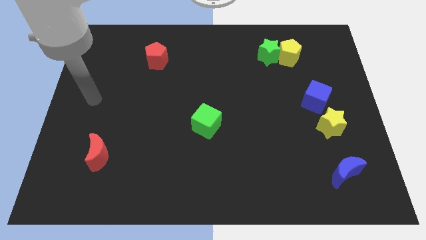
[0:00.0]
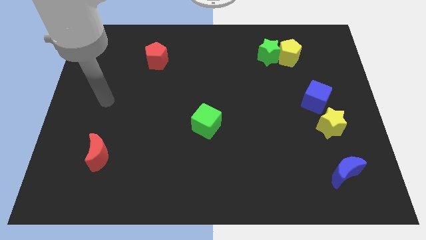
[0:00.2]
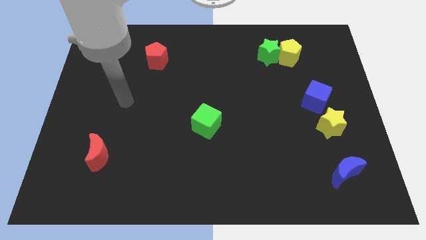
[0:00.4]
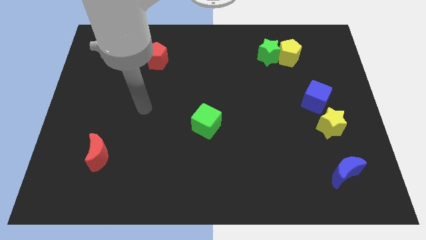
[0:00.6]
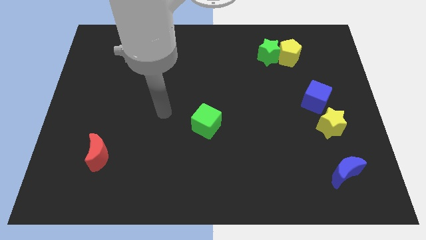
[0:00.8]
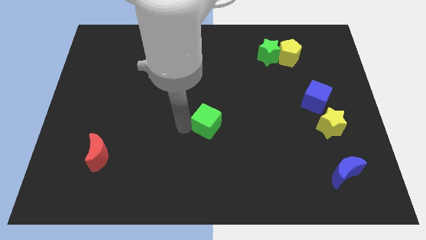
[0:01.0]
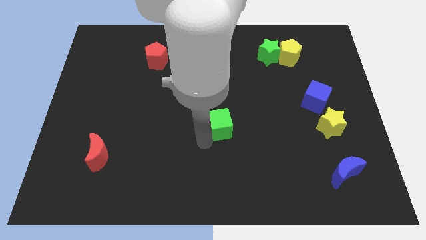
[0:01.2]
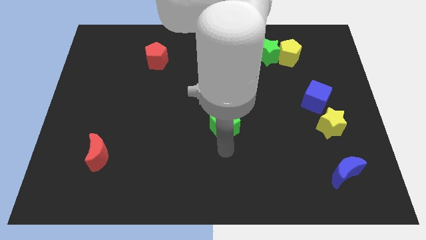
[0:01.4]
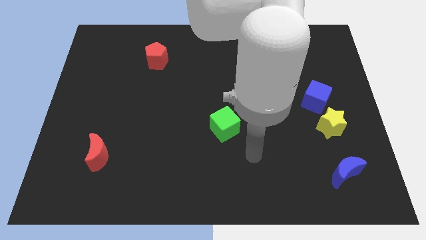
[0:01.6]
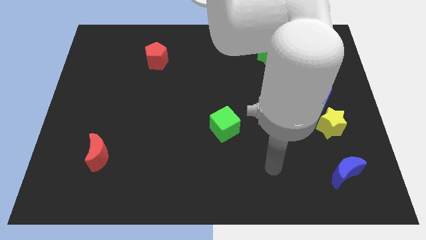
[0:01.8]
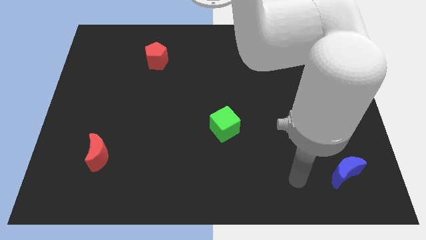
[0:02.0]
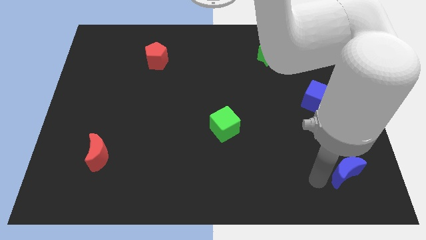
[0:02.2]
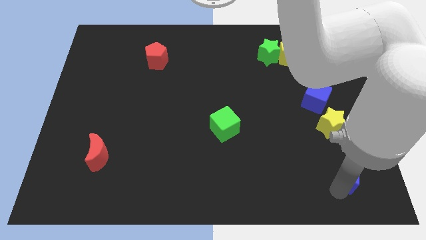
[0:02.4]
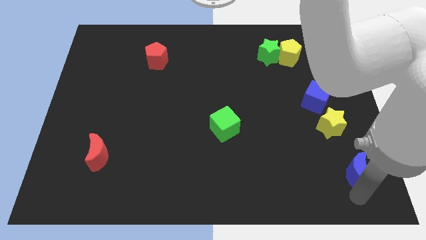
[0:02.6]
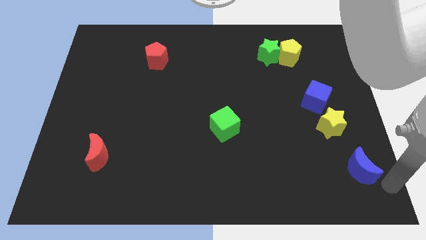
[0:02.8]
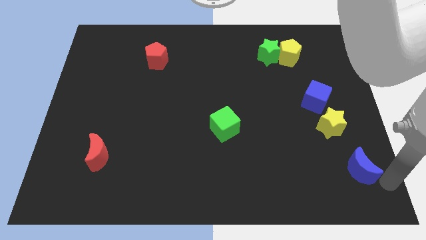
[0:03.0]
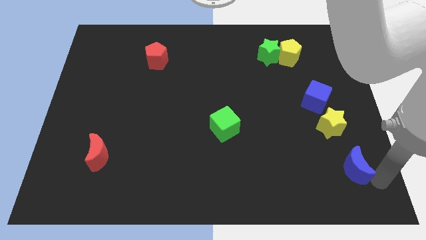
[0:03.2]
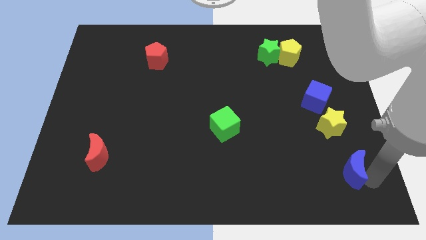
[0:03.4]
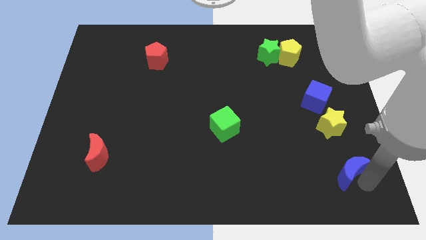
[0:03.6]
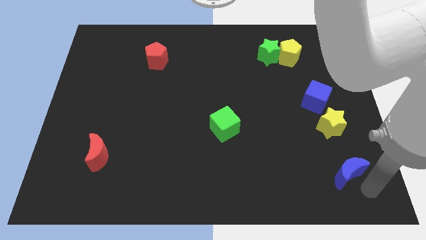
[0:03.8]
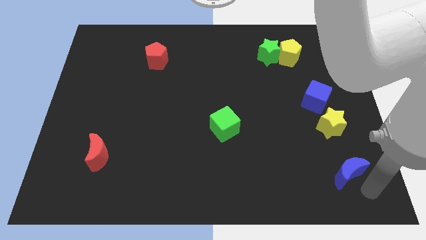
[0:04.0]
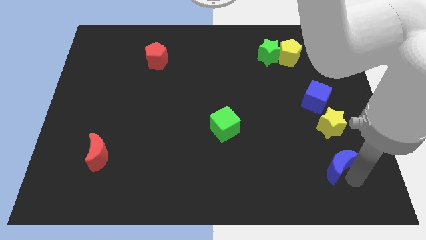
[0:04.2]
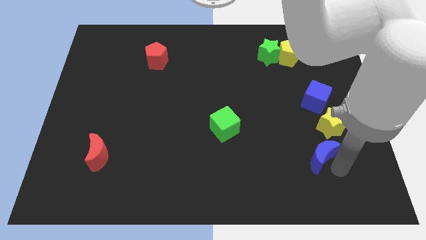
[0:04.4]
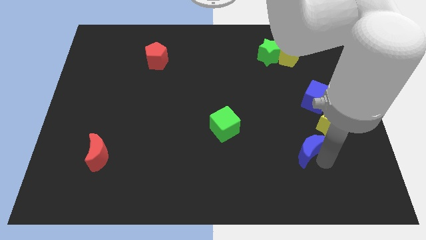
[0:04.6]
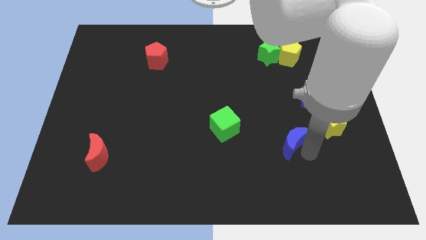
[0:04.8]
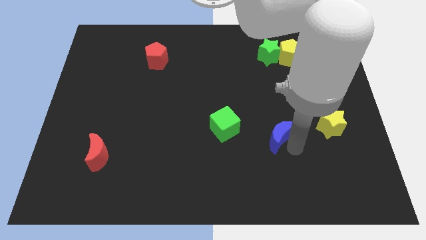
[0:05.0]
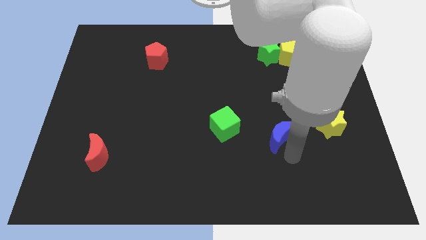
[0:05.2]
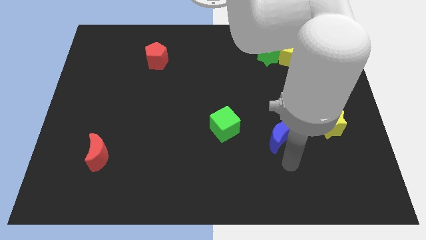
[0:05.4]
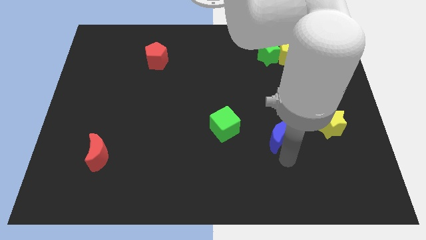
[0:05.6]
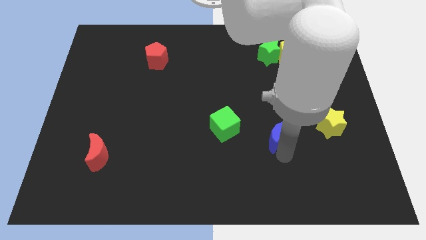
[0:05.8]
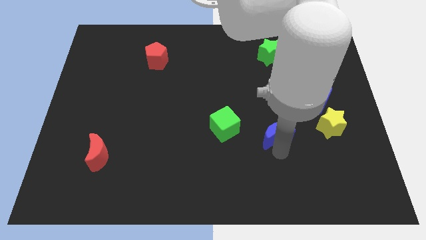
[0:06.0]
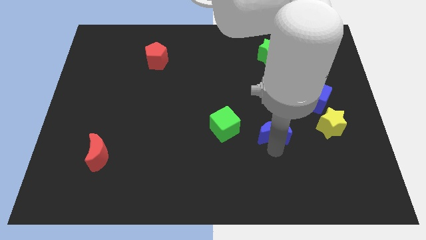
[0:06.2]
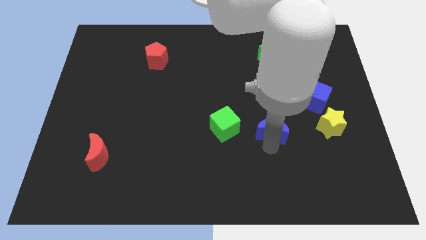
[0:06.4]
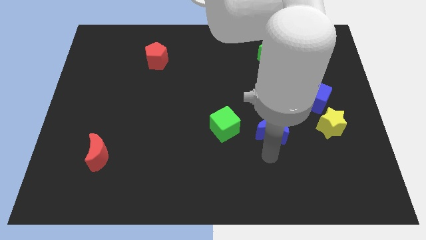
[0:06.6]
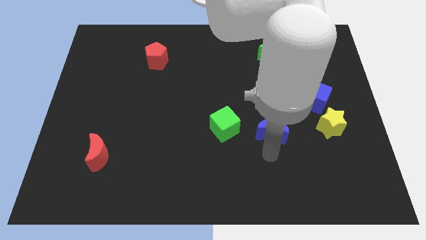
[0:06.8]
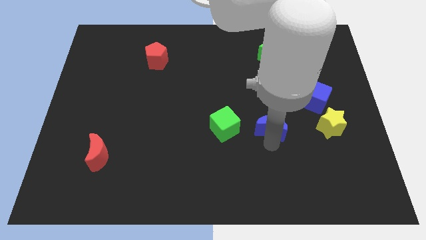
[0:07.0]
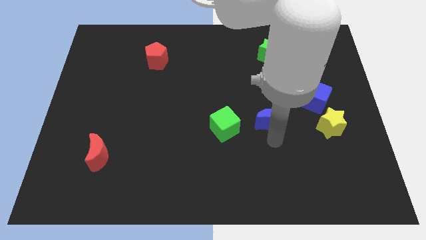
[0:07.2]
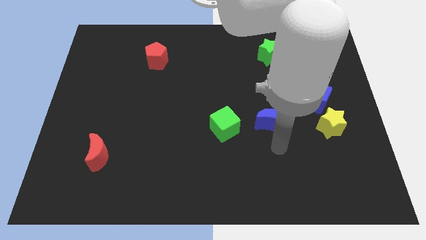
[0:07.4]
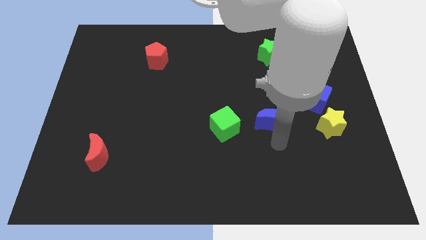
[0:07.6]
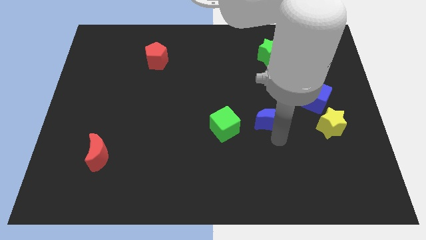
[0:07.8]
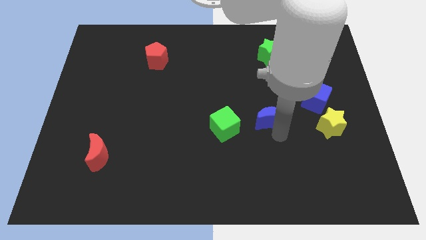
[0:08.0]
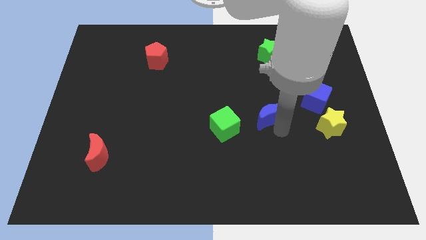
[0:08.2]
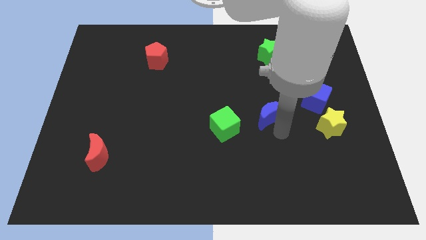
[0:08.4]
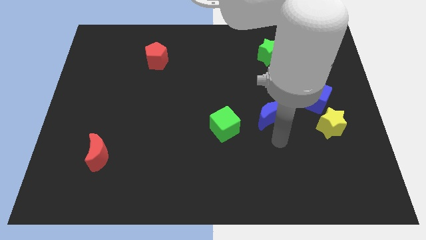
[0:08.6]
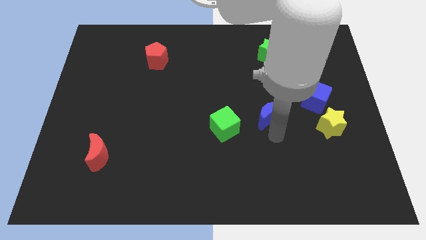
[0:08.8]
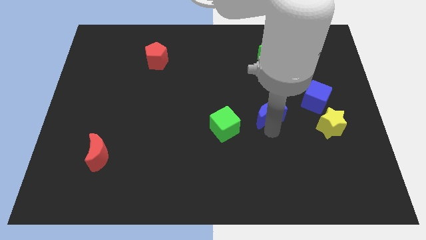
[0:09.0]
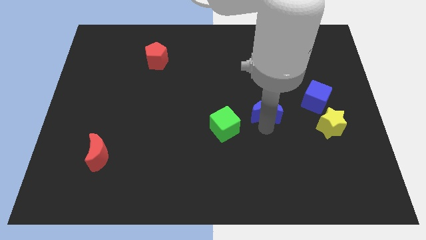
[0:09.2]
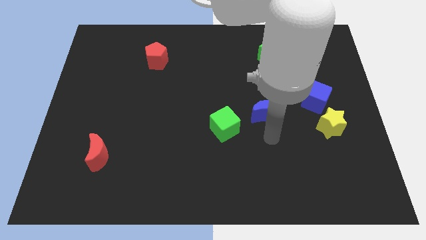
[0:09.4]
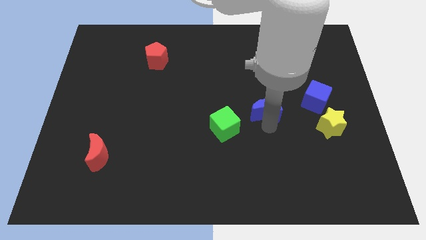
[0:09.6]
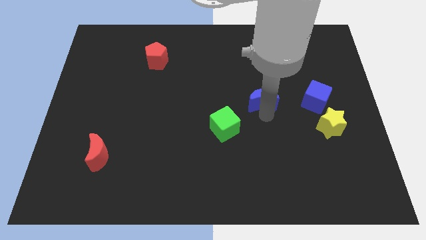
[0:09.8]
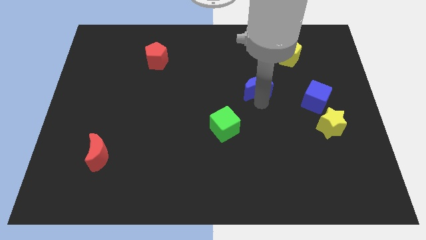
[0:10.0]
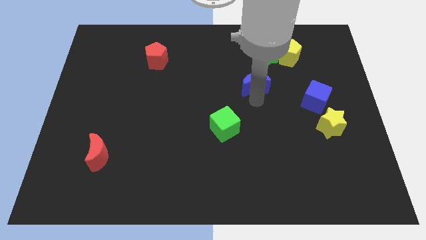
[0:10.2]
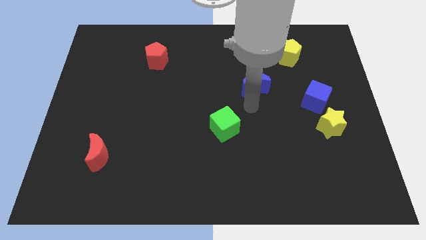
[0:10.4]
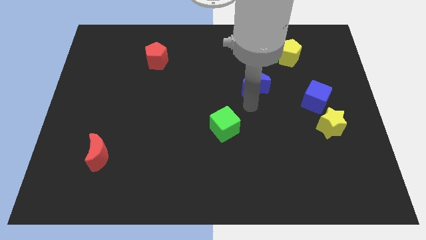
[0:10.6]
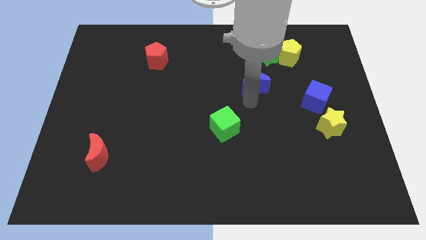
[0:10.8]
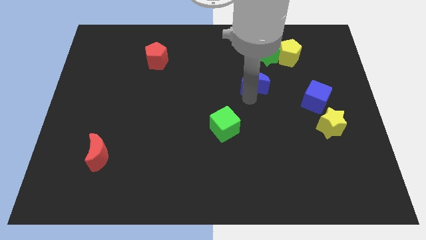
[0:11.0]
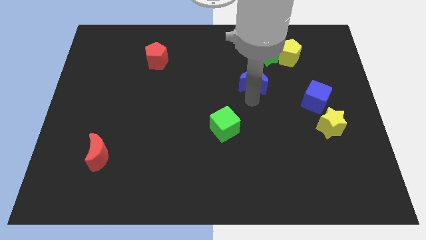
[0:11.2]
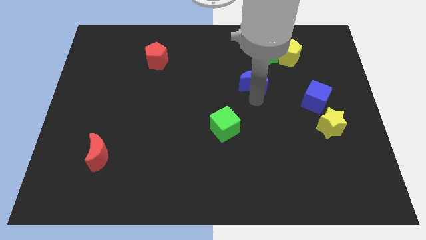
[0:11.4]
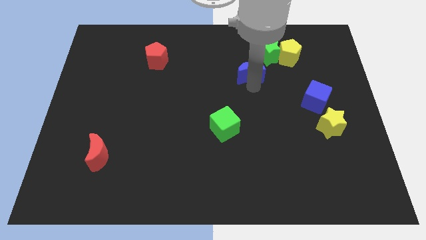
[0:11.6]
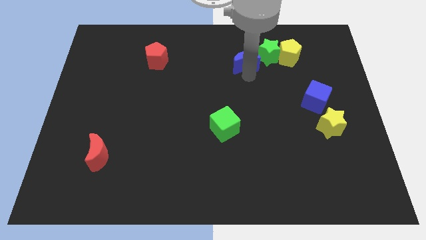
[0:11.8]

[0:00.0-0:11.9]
put the blue moon to the left side of the yellow pentagon

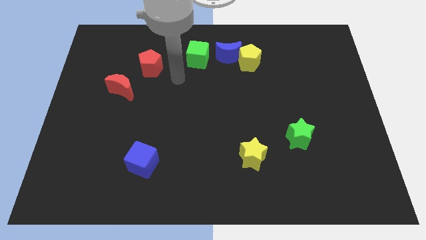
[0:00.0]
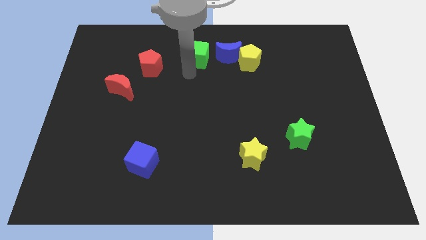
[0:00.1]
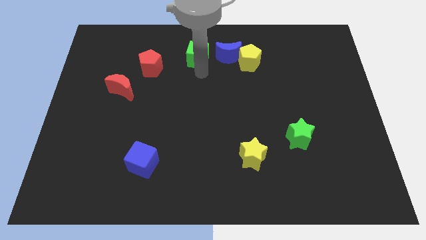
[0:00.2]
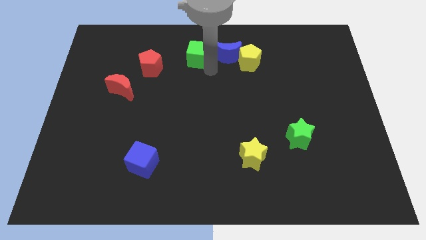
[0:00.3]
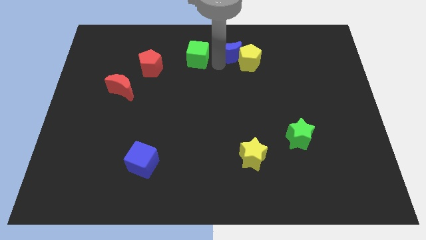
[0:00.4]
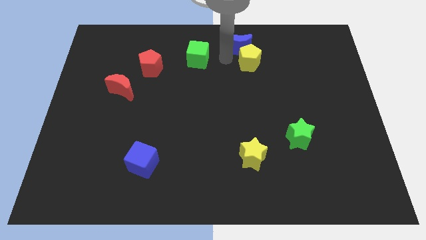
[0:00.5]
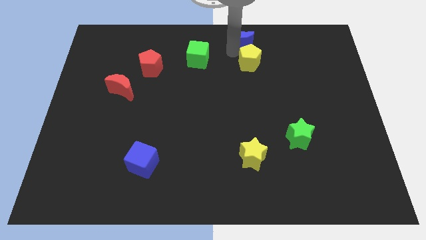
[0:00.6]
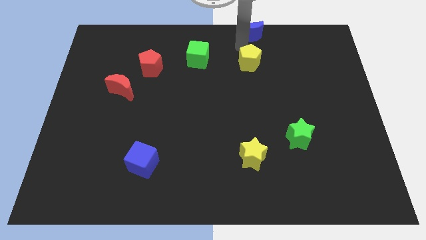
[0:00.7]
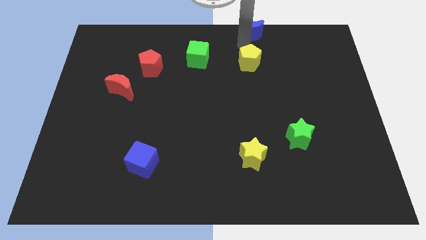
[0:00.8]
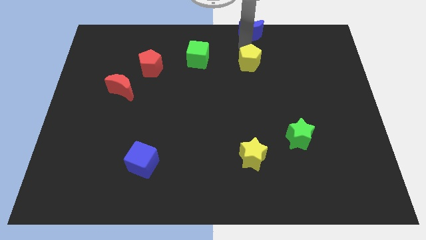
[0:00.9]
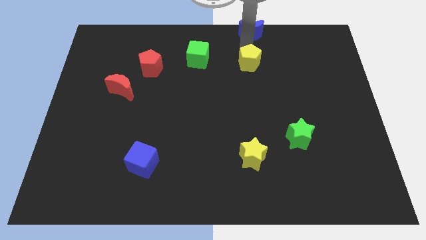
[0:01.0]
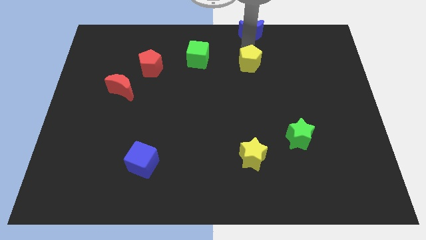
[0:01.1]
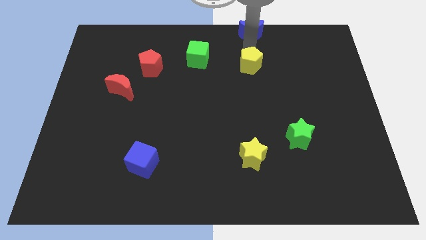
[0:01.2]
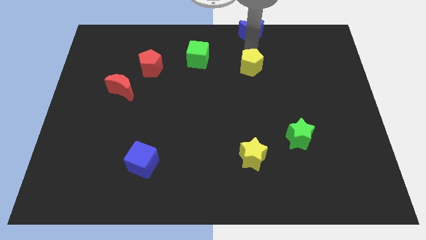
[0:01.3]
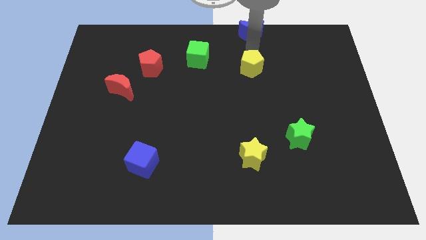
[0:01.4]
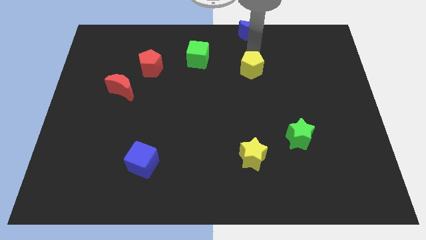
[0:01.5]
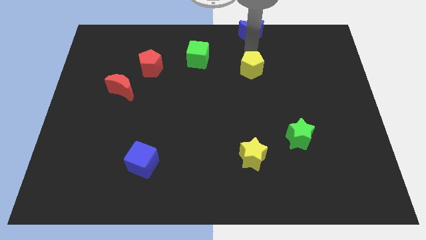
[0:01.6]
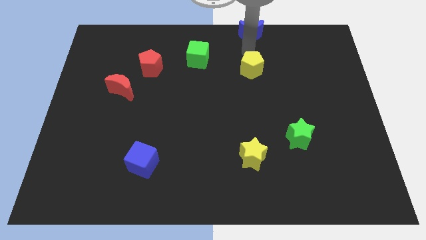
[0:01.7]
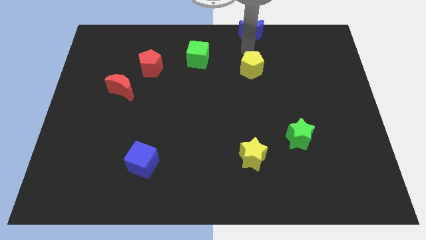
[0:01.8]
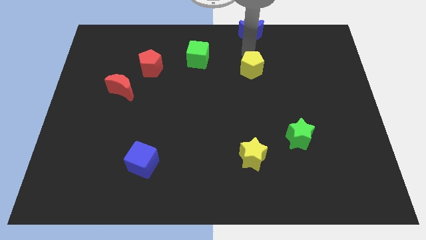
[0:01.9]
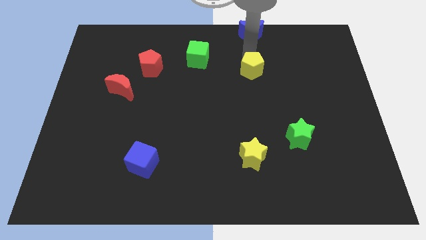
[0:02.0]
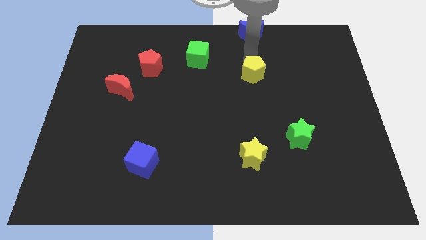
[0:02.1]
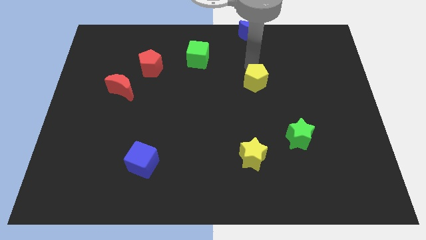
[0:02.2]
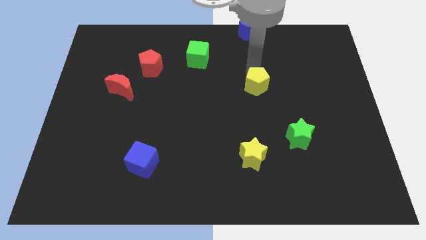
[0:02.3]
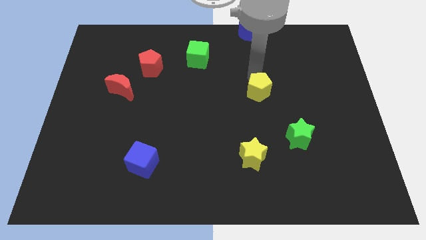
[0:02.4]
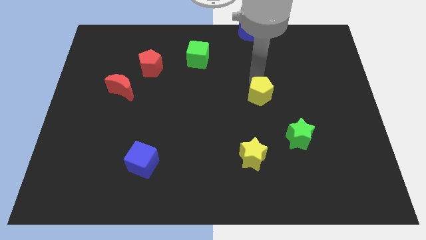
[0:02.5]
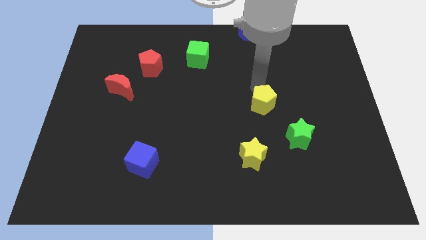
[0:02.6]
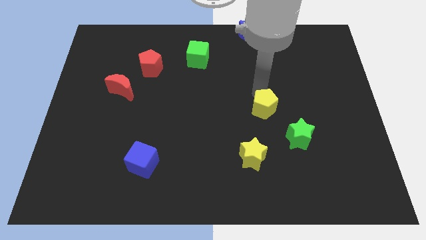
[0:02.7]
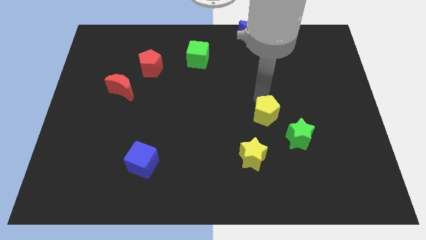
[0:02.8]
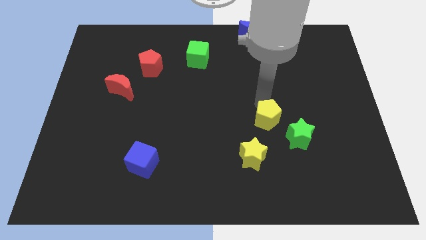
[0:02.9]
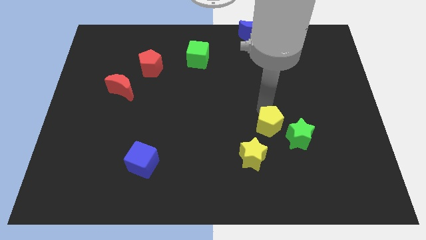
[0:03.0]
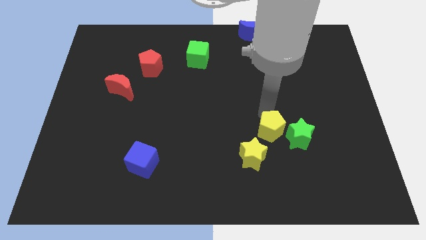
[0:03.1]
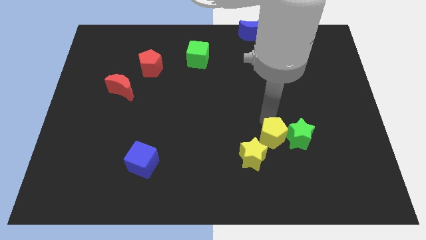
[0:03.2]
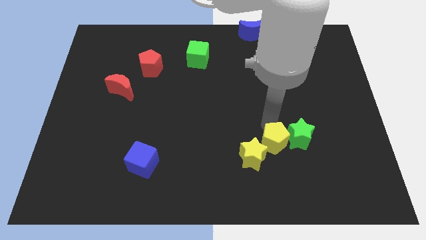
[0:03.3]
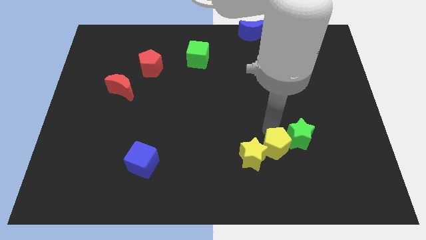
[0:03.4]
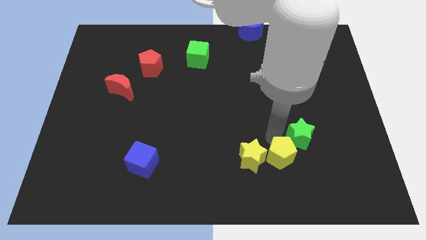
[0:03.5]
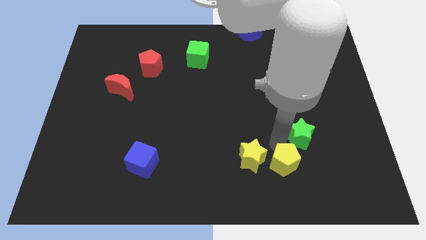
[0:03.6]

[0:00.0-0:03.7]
move the yellow pentagon to the bottom right side of the yellow star
